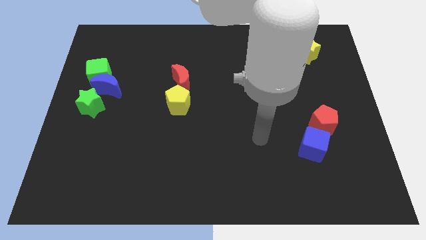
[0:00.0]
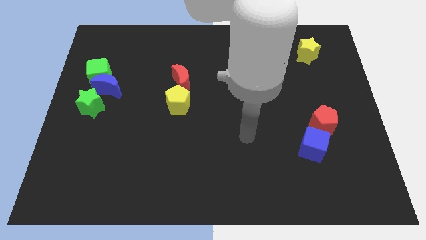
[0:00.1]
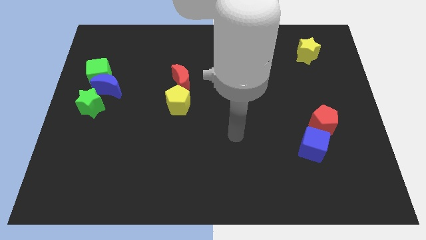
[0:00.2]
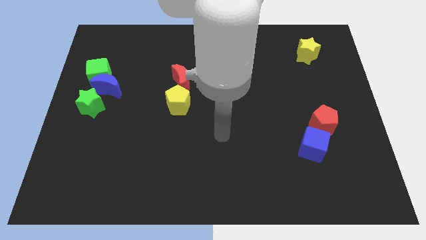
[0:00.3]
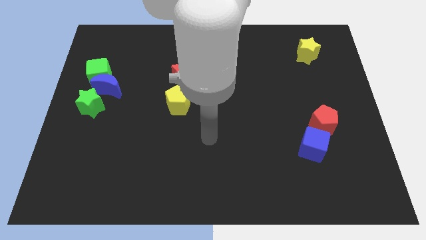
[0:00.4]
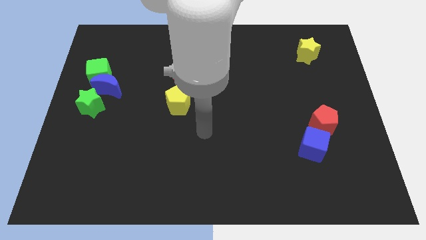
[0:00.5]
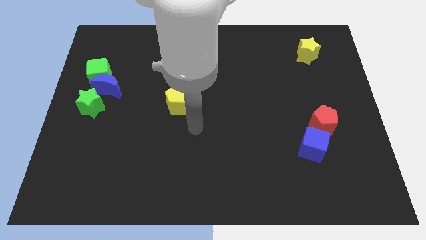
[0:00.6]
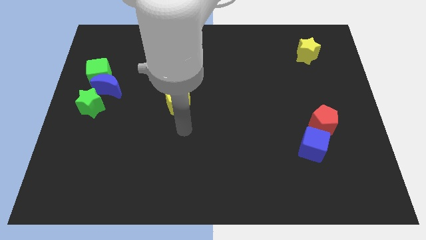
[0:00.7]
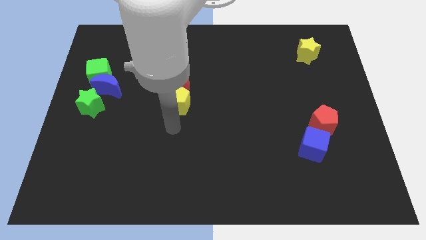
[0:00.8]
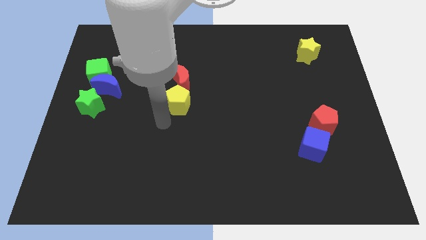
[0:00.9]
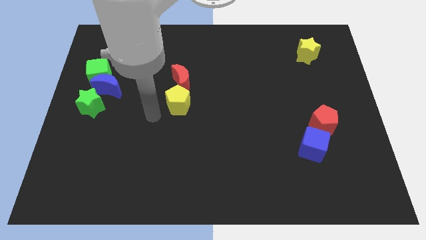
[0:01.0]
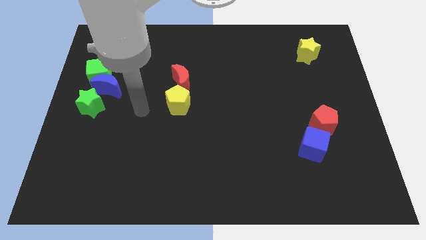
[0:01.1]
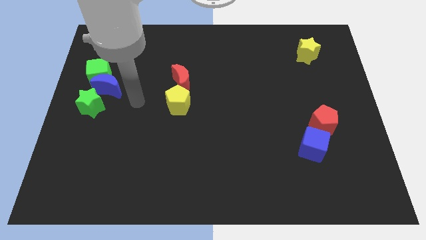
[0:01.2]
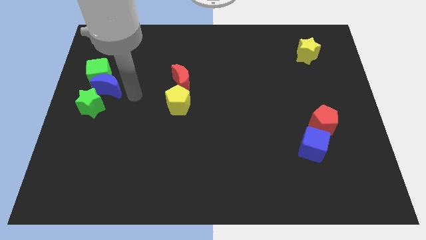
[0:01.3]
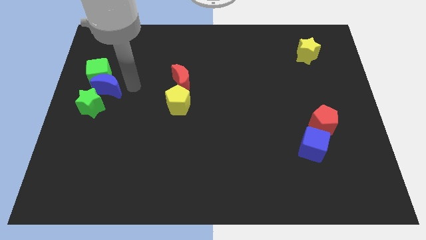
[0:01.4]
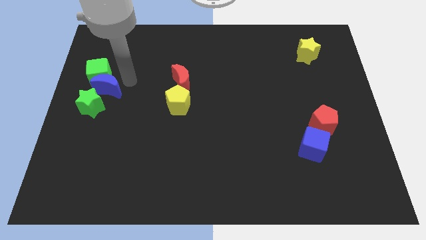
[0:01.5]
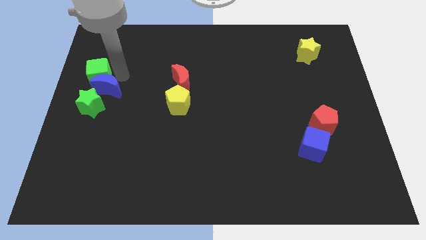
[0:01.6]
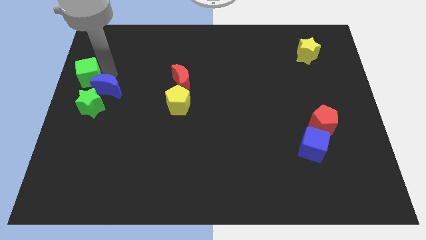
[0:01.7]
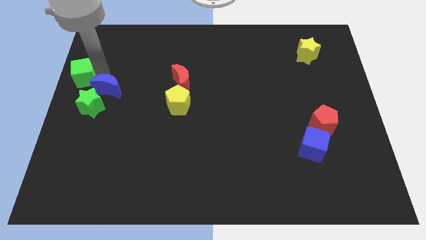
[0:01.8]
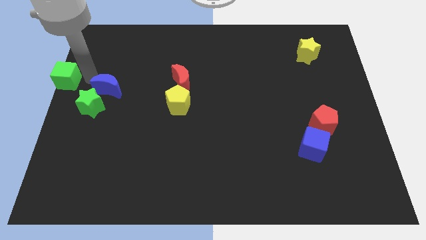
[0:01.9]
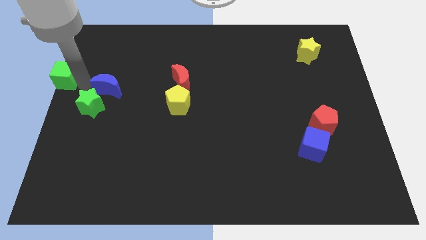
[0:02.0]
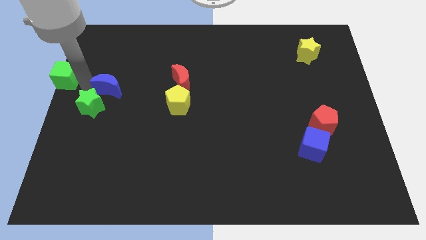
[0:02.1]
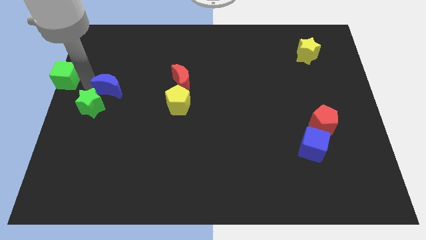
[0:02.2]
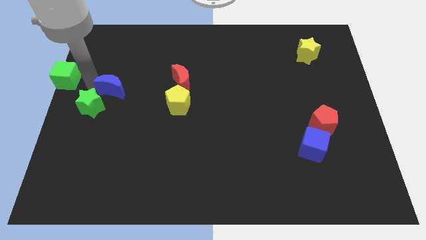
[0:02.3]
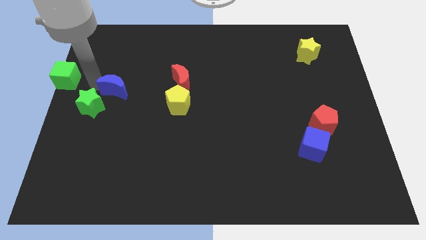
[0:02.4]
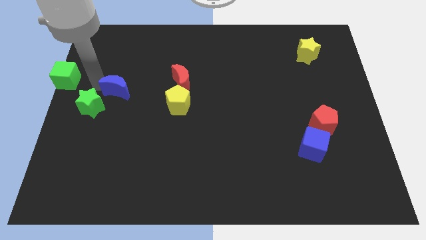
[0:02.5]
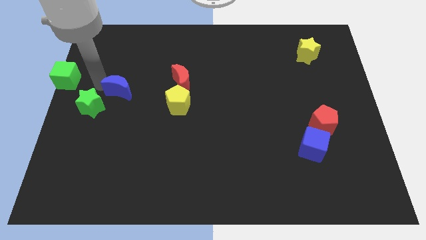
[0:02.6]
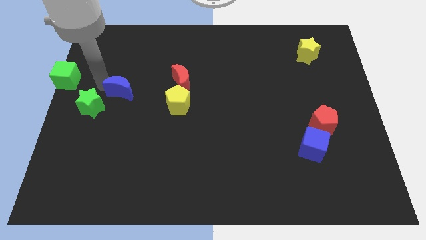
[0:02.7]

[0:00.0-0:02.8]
separate the blue moon from the green cube and green star

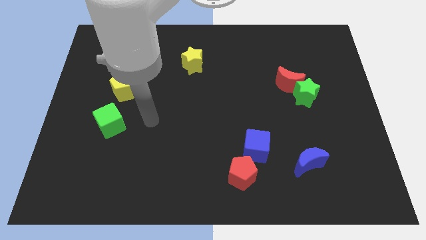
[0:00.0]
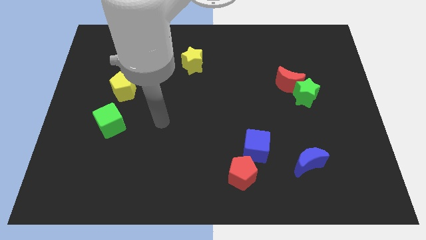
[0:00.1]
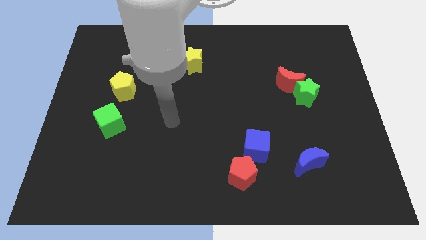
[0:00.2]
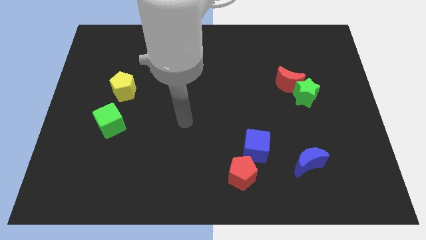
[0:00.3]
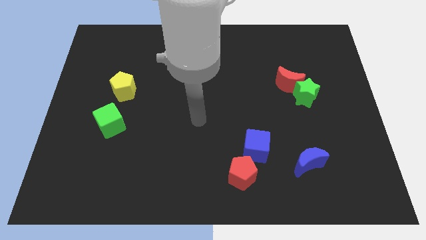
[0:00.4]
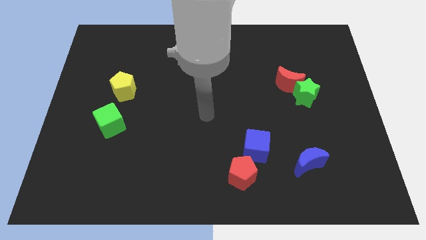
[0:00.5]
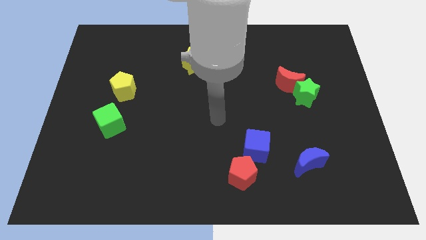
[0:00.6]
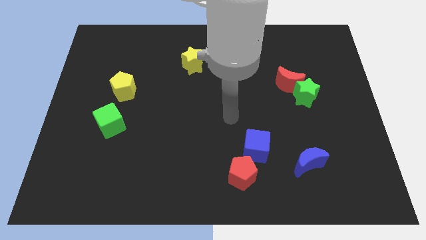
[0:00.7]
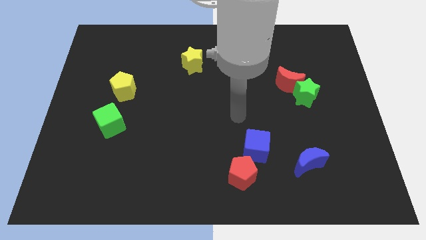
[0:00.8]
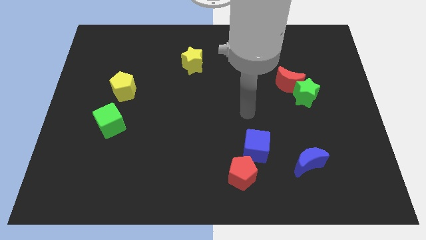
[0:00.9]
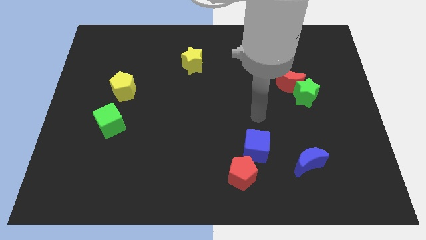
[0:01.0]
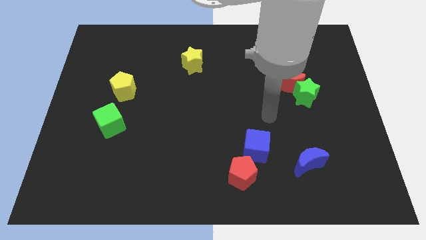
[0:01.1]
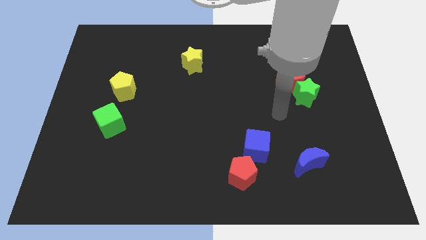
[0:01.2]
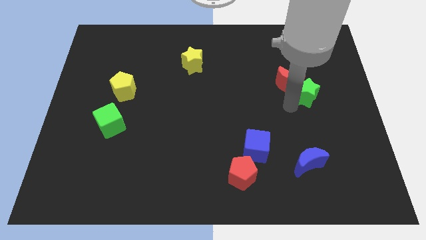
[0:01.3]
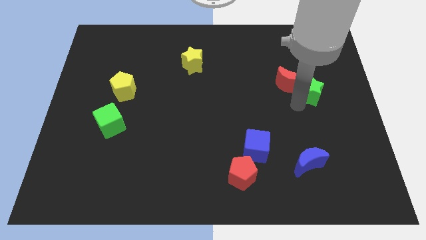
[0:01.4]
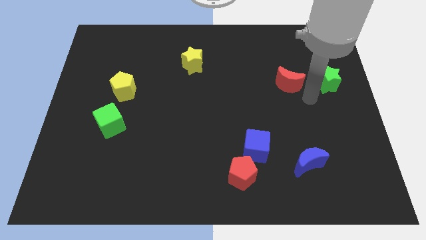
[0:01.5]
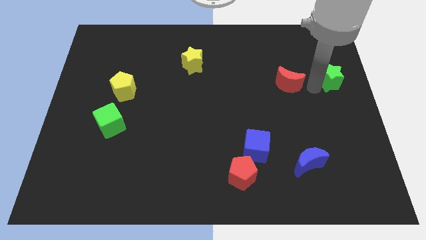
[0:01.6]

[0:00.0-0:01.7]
separate the red moon from the green star

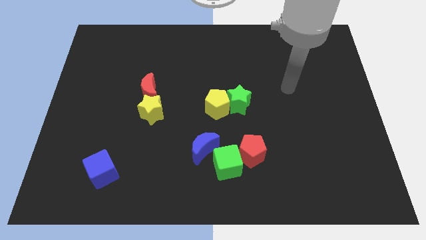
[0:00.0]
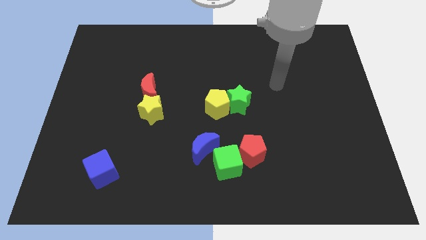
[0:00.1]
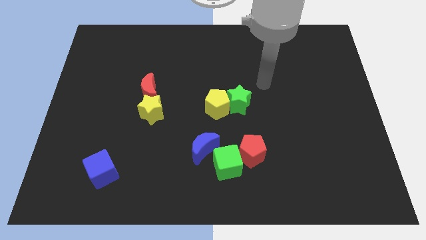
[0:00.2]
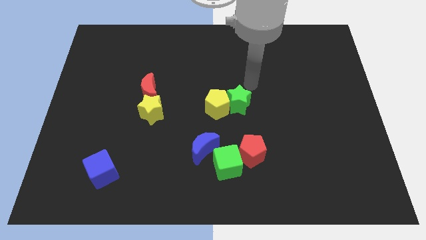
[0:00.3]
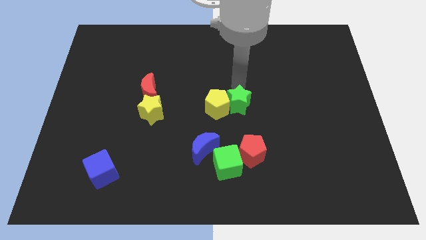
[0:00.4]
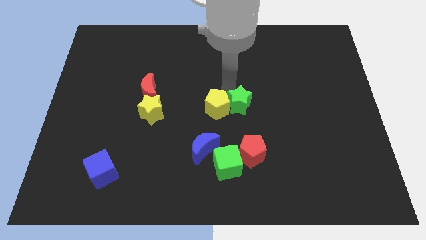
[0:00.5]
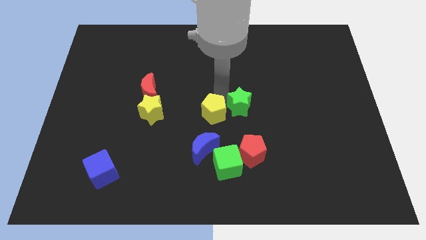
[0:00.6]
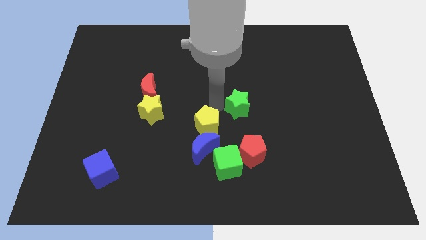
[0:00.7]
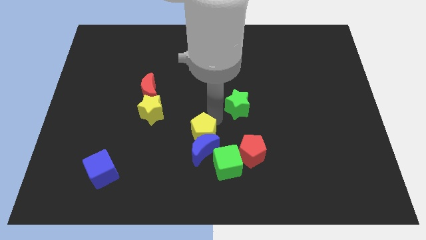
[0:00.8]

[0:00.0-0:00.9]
pull the green star apart from the yellow pentagon

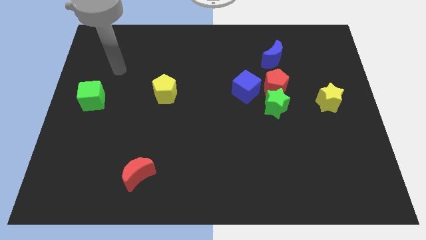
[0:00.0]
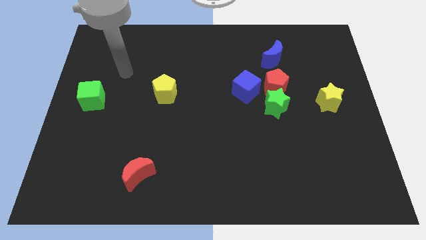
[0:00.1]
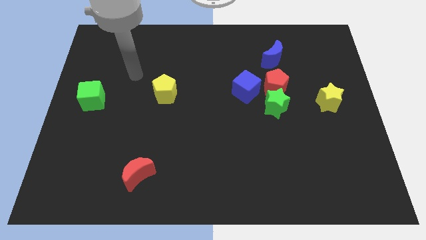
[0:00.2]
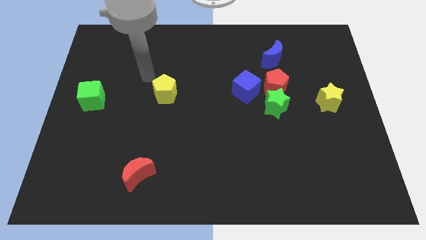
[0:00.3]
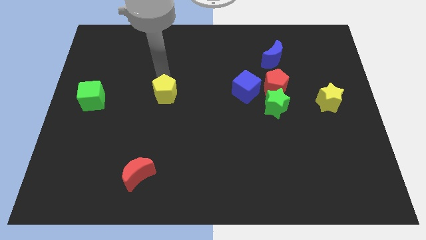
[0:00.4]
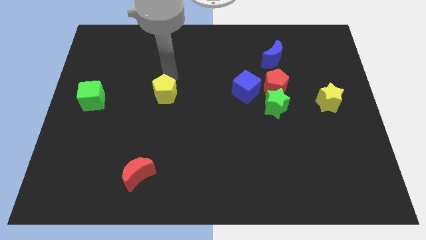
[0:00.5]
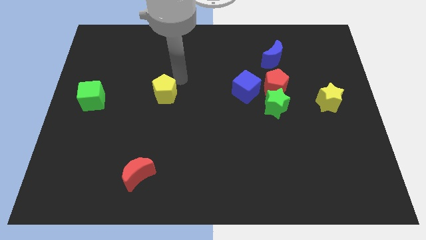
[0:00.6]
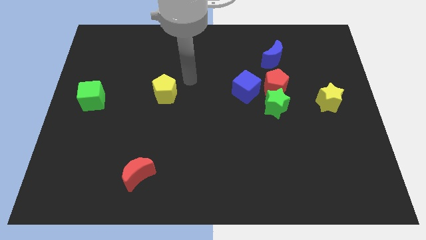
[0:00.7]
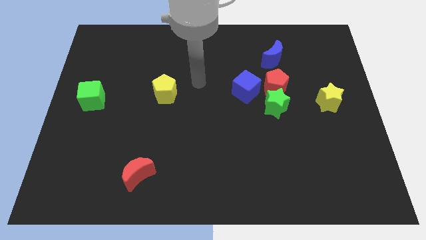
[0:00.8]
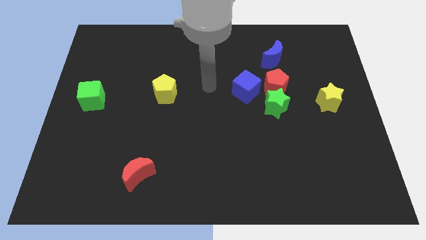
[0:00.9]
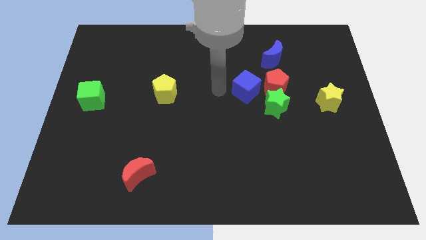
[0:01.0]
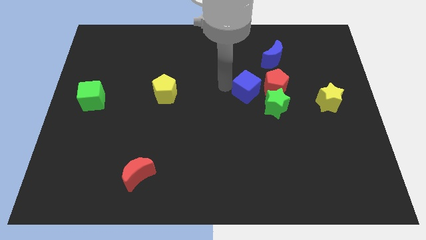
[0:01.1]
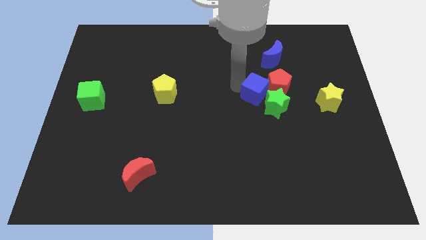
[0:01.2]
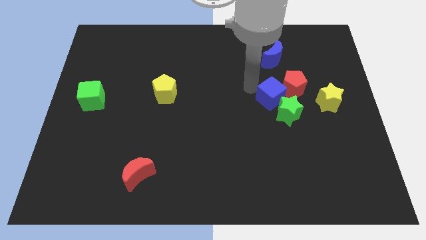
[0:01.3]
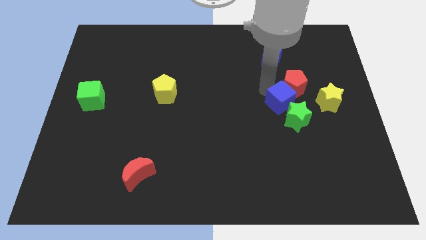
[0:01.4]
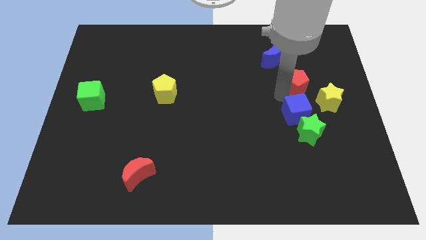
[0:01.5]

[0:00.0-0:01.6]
move the green star away from the red pentagon and blue cube

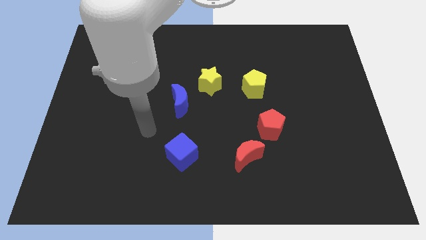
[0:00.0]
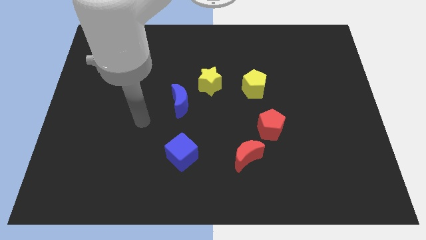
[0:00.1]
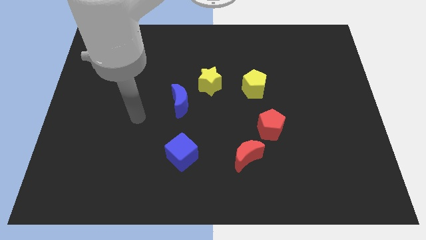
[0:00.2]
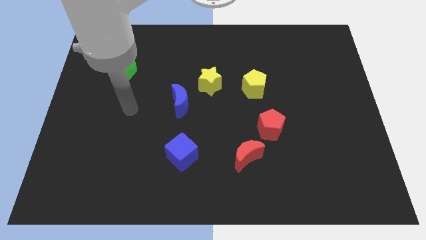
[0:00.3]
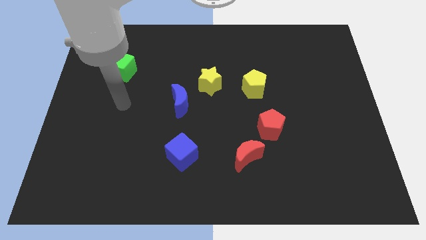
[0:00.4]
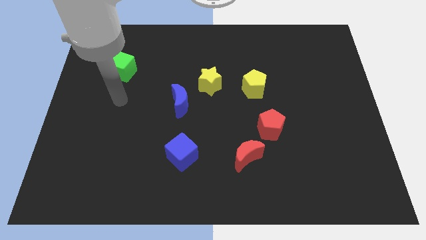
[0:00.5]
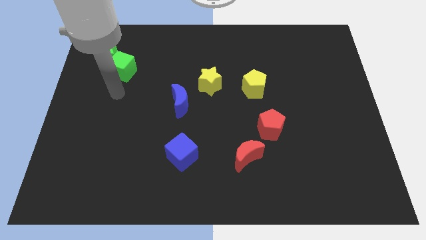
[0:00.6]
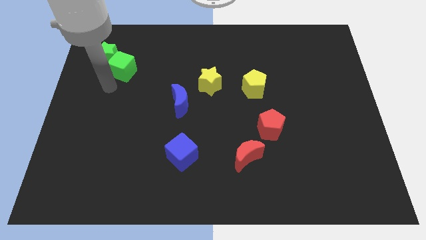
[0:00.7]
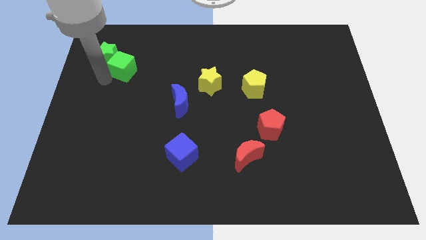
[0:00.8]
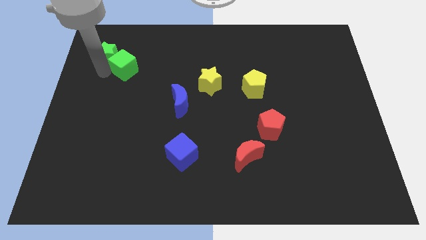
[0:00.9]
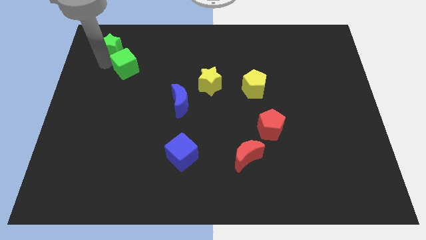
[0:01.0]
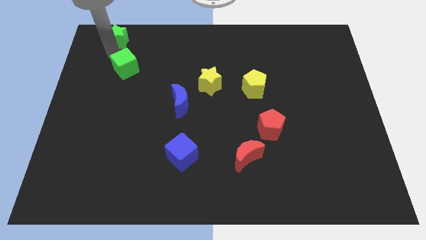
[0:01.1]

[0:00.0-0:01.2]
separate the green cube from the green star

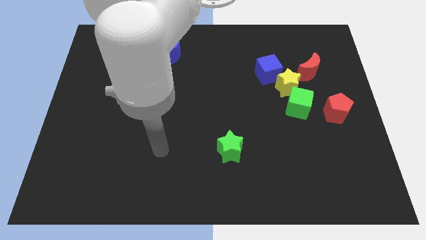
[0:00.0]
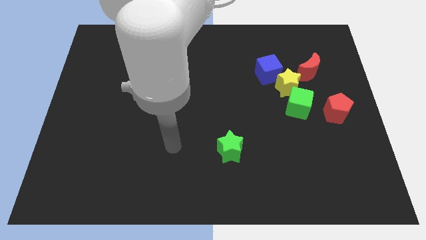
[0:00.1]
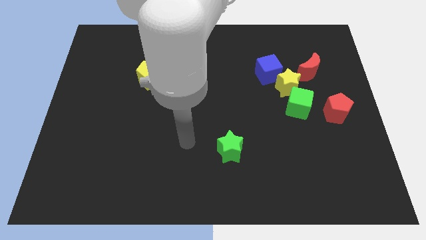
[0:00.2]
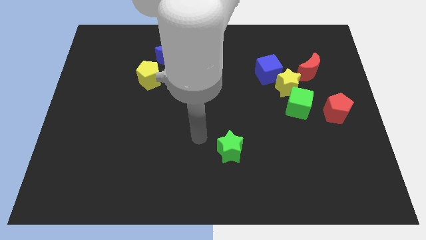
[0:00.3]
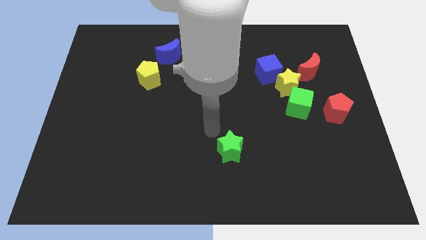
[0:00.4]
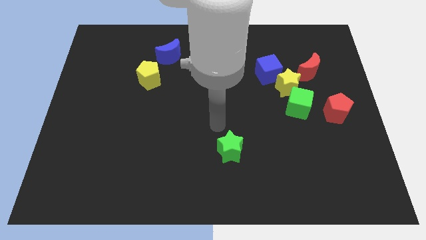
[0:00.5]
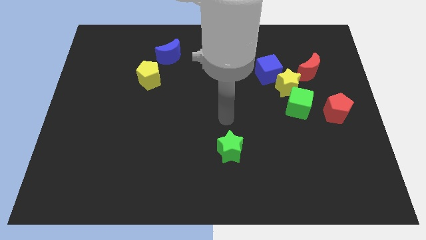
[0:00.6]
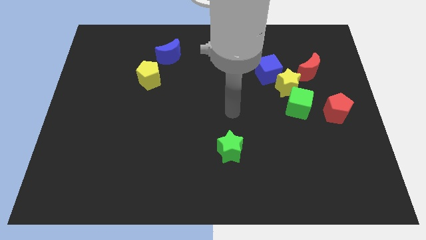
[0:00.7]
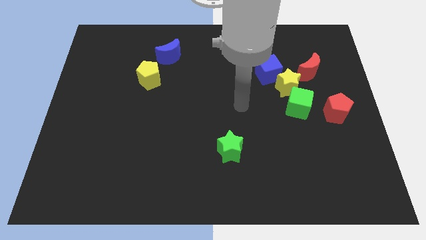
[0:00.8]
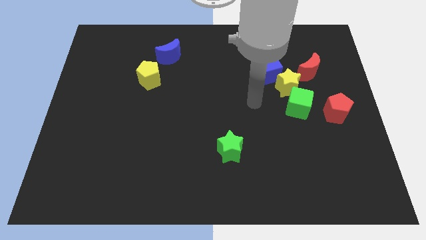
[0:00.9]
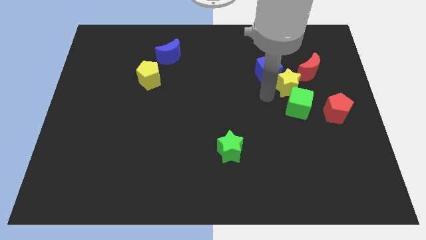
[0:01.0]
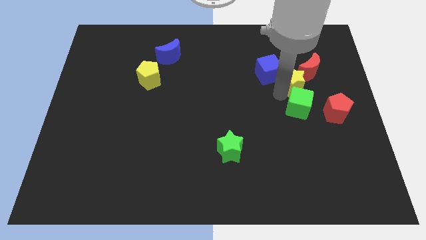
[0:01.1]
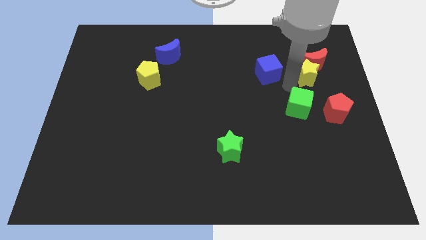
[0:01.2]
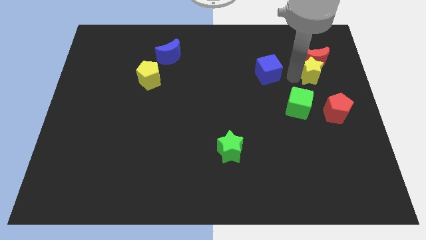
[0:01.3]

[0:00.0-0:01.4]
separate the blue cube from the yellow star
